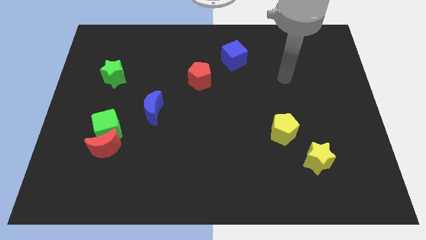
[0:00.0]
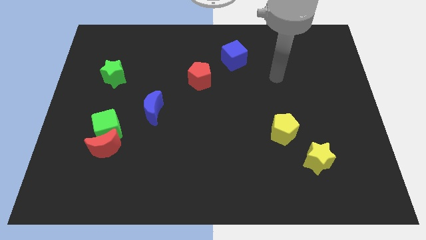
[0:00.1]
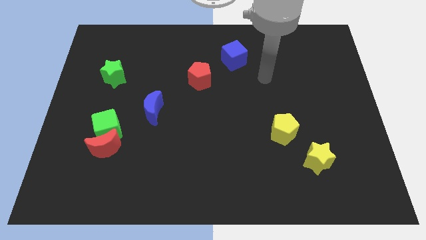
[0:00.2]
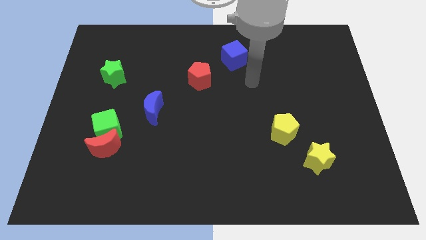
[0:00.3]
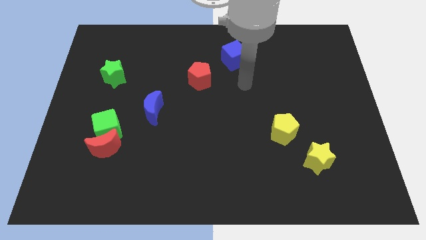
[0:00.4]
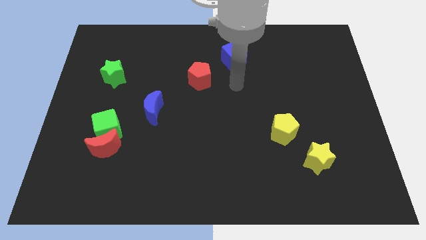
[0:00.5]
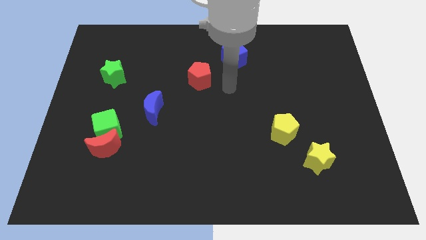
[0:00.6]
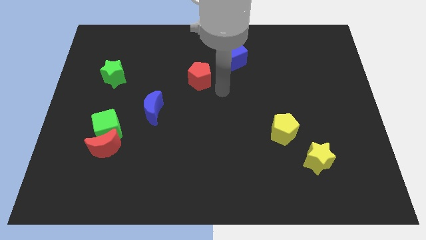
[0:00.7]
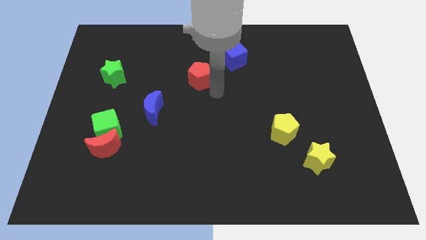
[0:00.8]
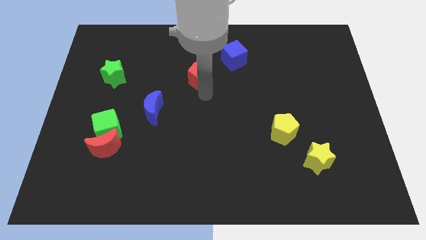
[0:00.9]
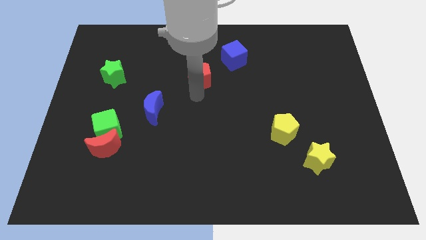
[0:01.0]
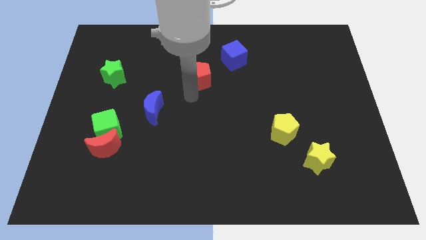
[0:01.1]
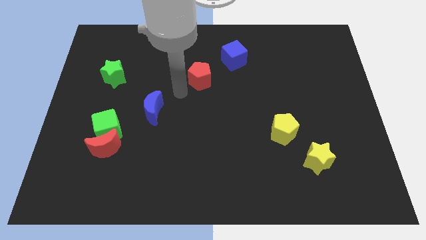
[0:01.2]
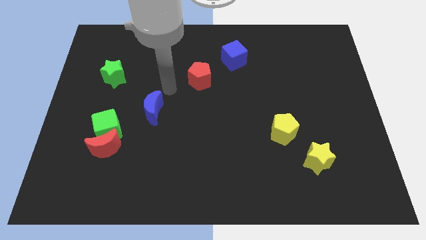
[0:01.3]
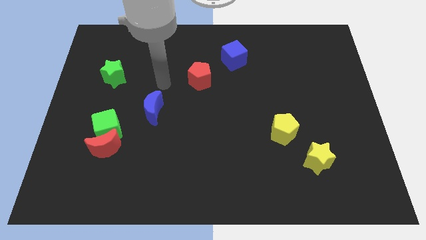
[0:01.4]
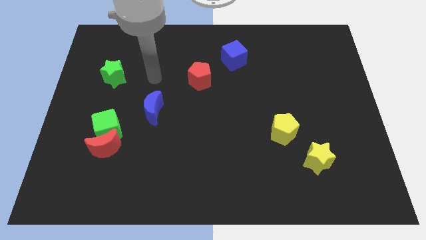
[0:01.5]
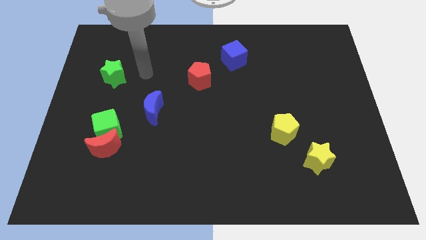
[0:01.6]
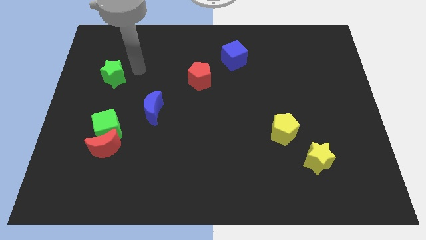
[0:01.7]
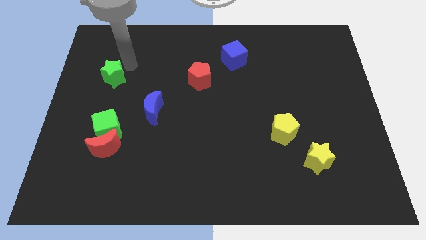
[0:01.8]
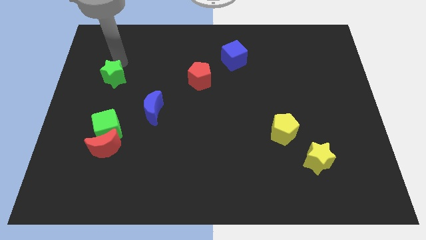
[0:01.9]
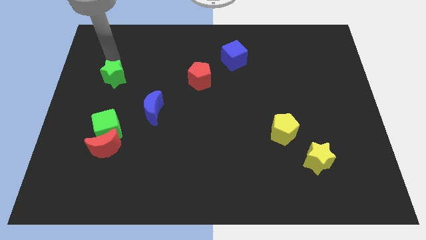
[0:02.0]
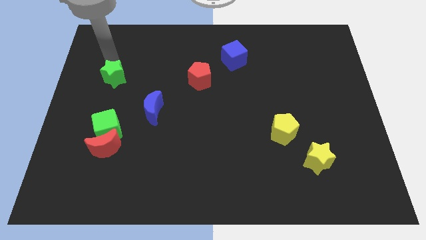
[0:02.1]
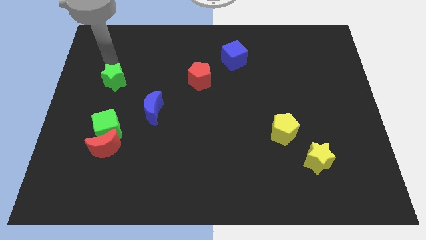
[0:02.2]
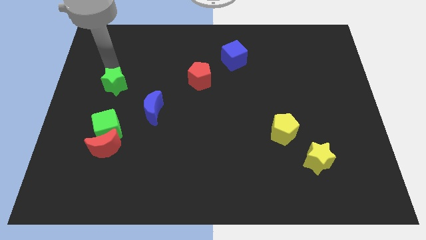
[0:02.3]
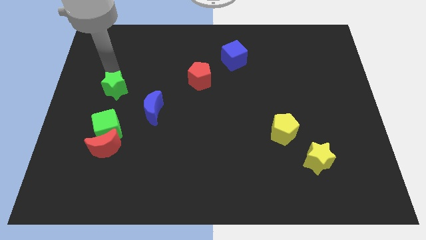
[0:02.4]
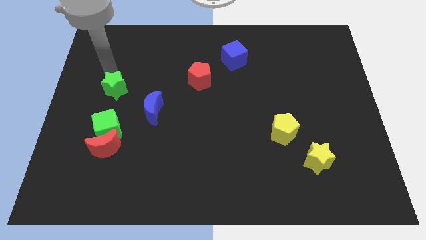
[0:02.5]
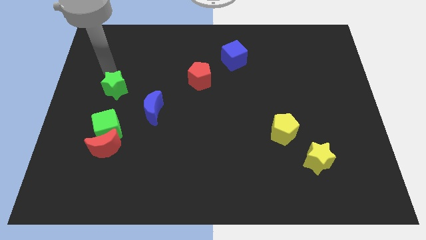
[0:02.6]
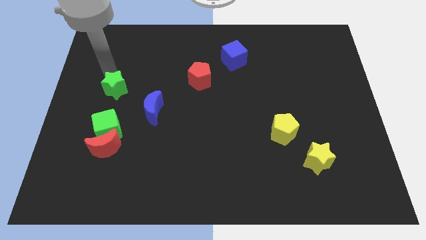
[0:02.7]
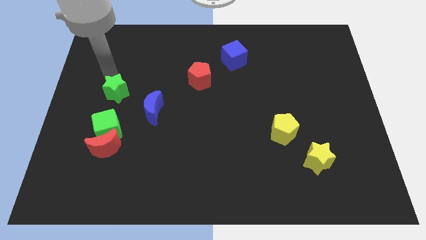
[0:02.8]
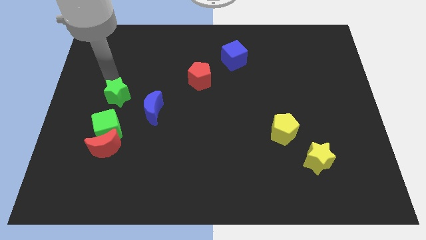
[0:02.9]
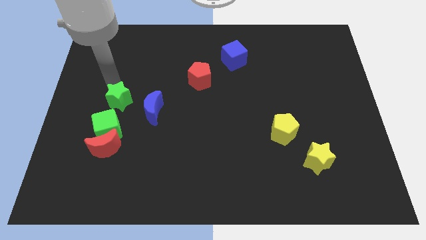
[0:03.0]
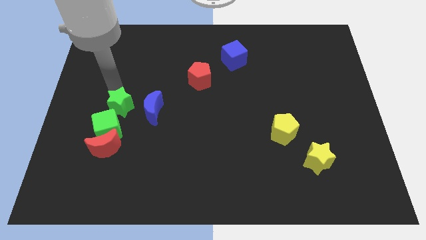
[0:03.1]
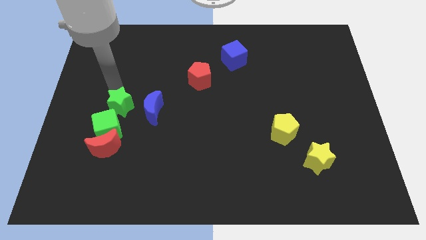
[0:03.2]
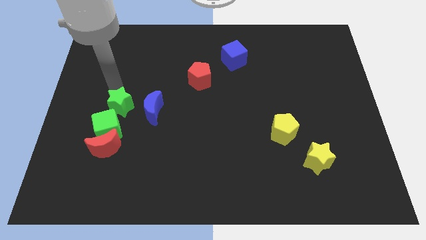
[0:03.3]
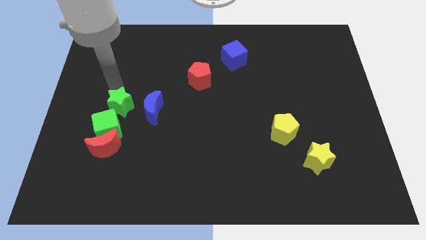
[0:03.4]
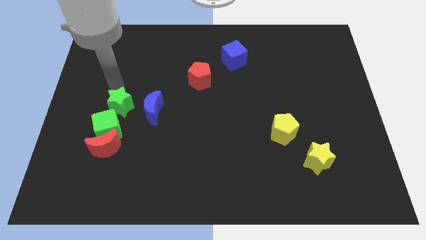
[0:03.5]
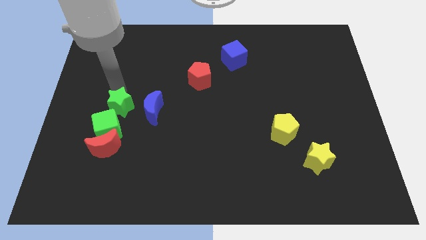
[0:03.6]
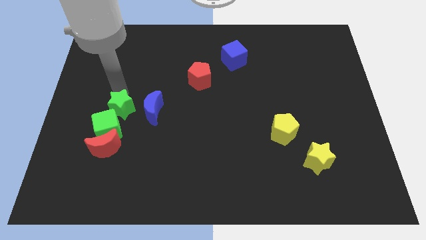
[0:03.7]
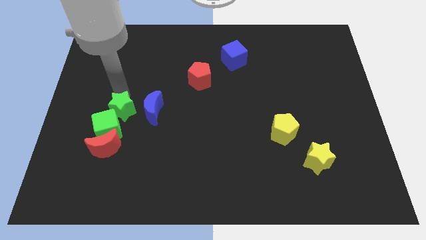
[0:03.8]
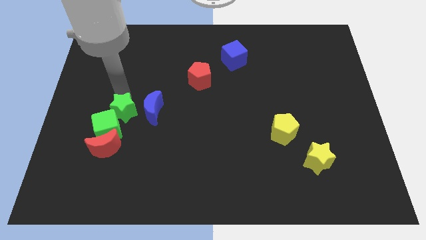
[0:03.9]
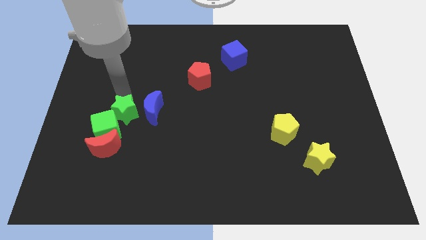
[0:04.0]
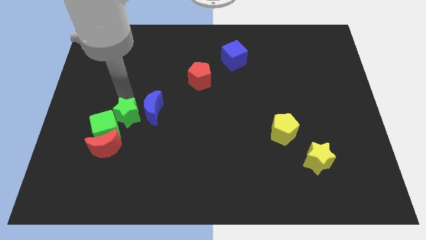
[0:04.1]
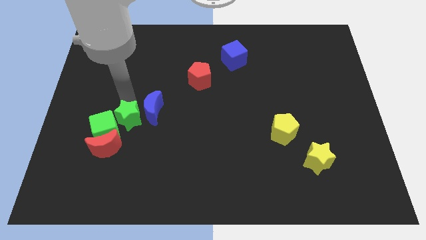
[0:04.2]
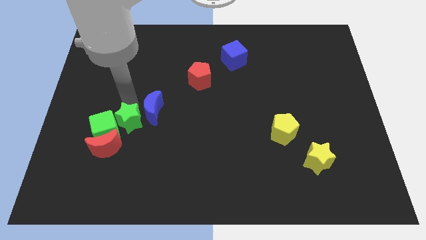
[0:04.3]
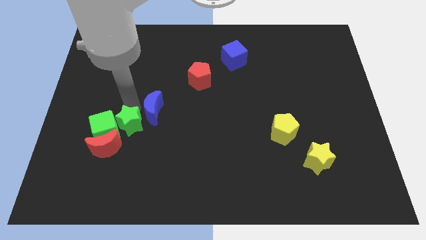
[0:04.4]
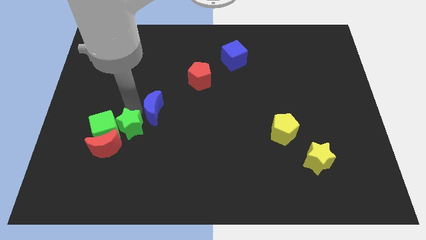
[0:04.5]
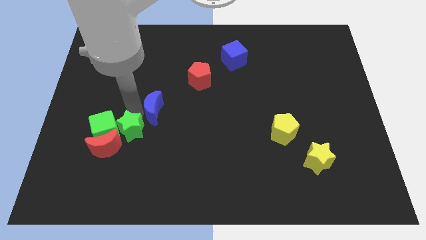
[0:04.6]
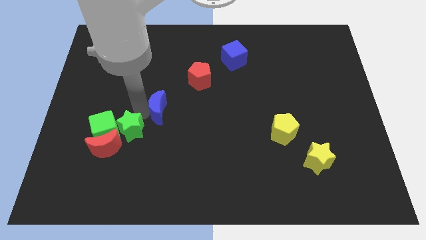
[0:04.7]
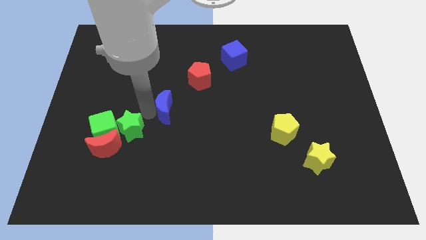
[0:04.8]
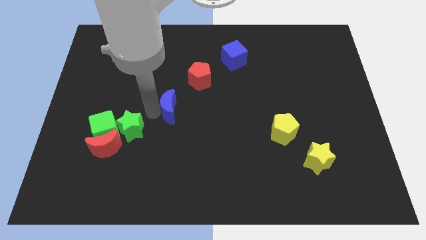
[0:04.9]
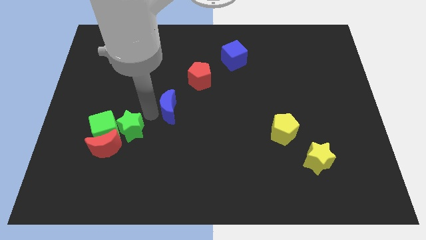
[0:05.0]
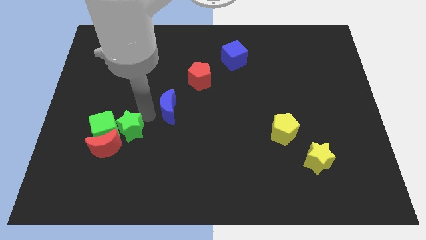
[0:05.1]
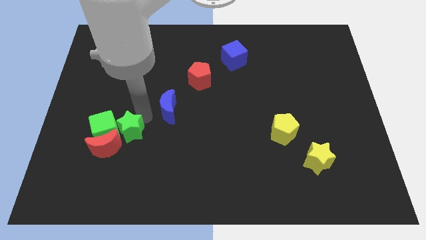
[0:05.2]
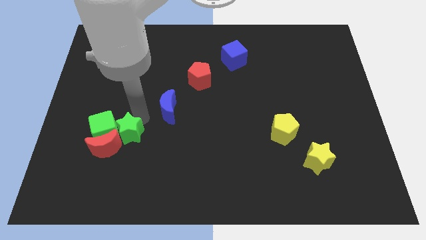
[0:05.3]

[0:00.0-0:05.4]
push the green star to the red moon

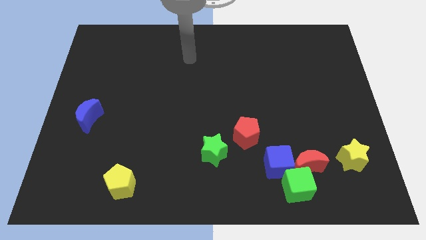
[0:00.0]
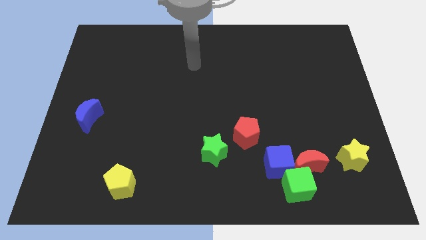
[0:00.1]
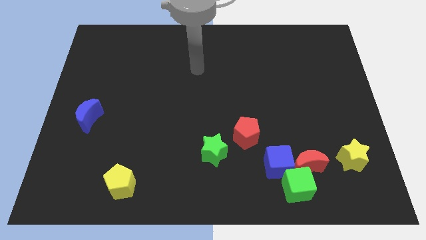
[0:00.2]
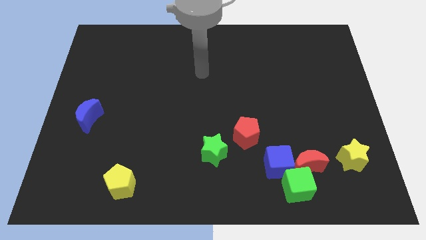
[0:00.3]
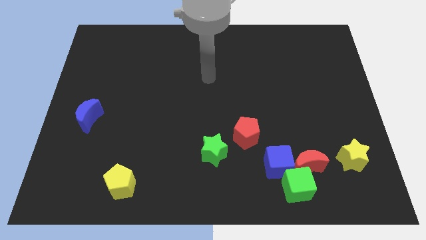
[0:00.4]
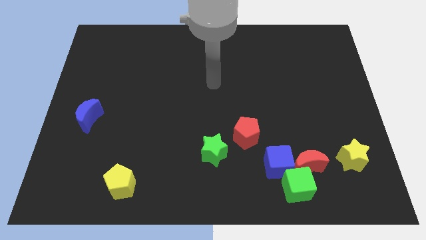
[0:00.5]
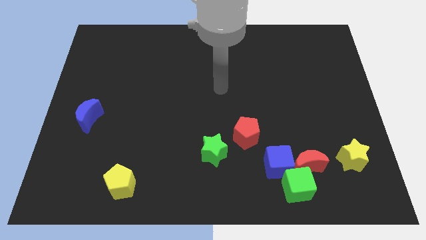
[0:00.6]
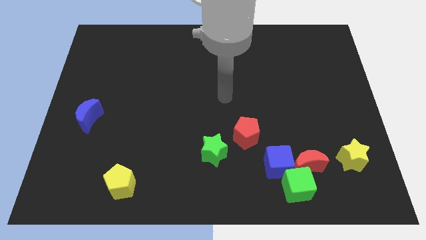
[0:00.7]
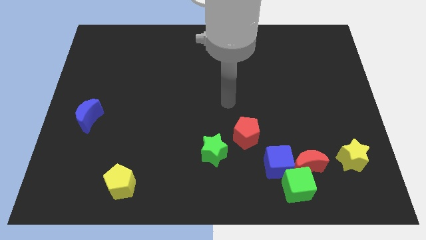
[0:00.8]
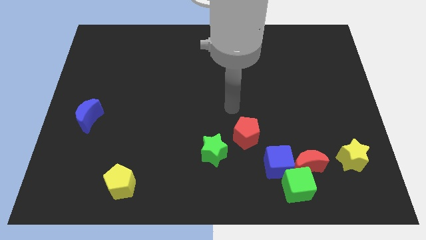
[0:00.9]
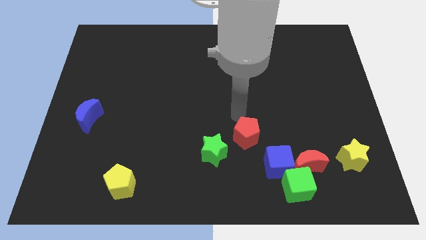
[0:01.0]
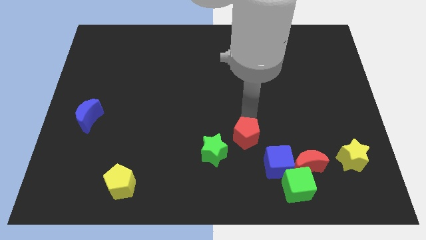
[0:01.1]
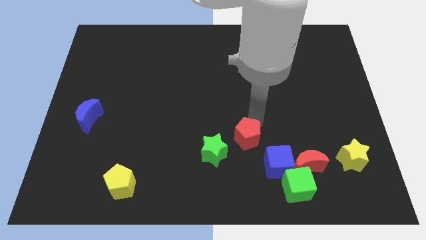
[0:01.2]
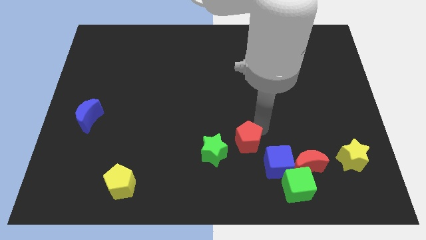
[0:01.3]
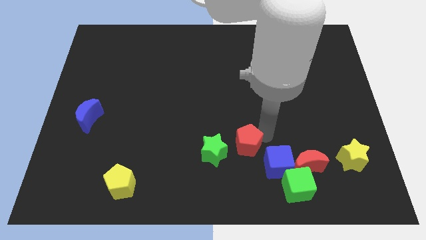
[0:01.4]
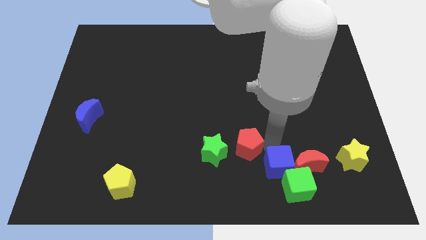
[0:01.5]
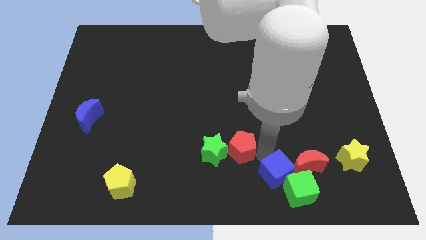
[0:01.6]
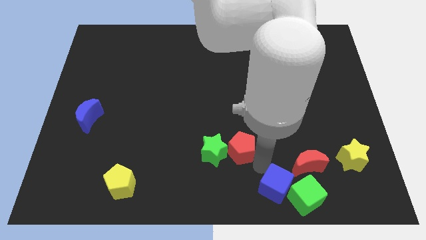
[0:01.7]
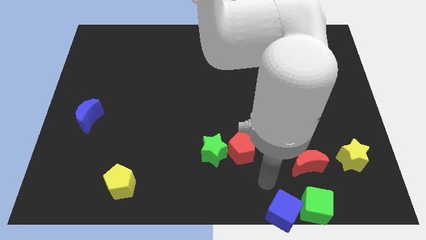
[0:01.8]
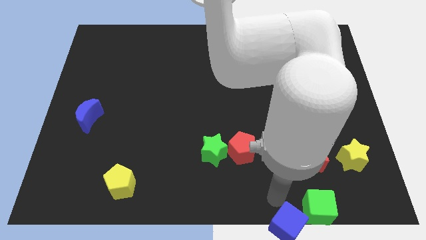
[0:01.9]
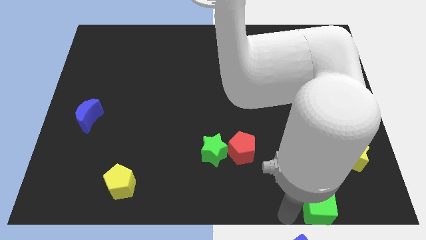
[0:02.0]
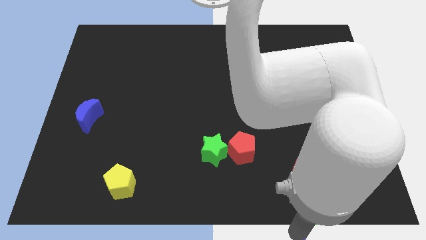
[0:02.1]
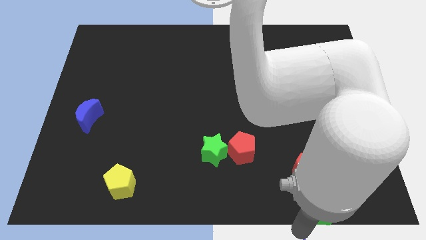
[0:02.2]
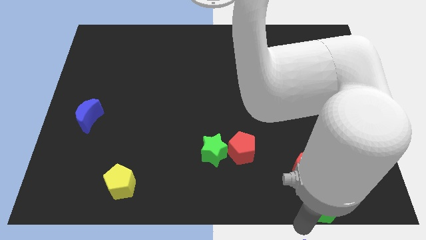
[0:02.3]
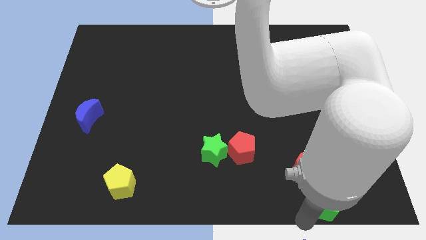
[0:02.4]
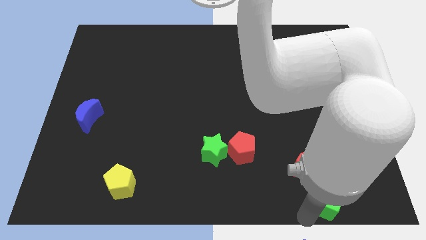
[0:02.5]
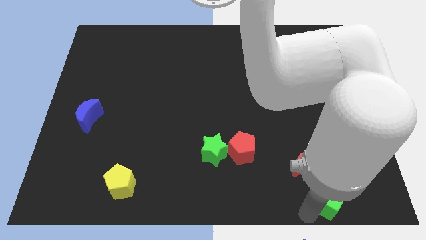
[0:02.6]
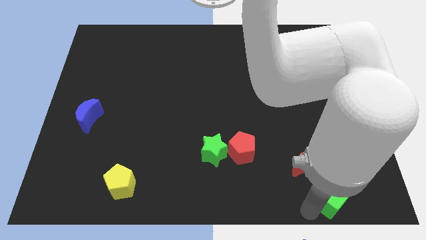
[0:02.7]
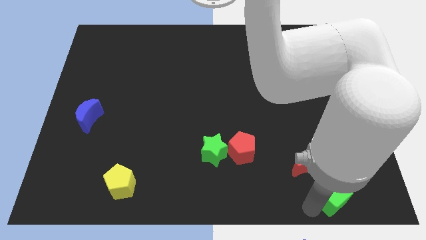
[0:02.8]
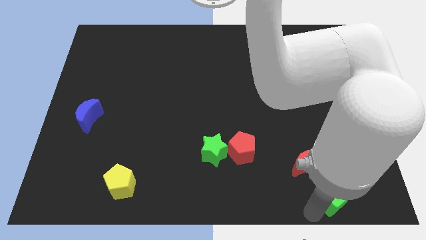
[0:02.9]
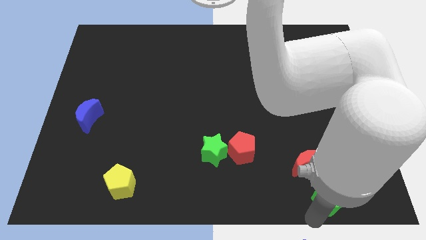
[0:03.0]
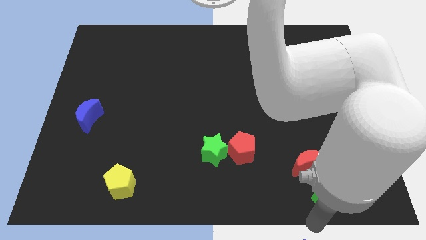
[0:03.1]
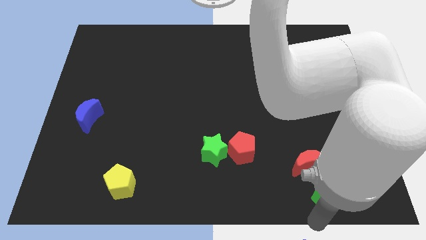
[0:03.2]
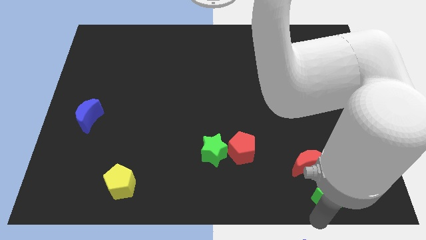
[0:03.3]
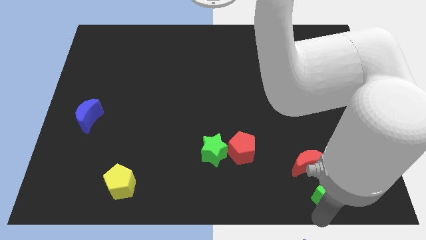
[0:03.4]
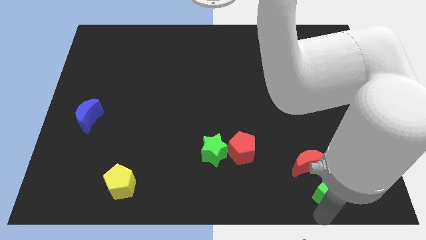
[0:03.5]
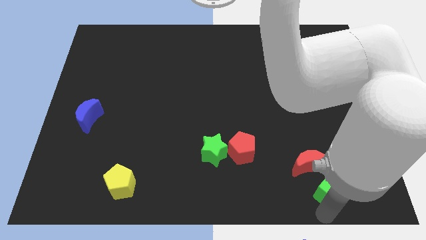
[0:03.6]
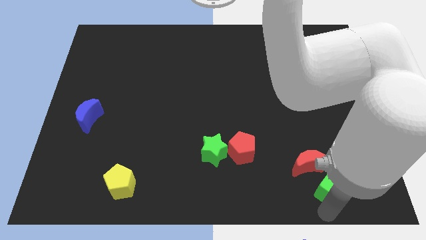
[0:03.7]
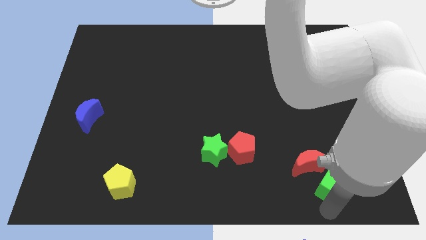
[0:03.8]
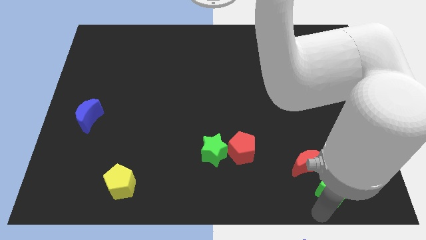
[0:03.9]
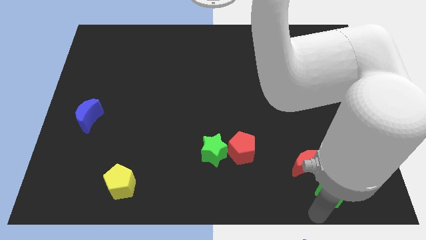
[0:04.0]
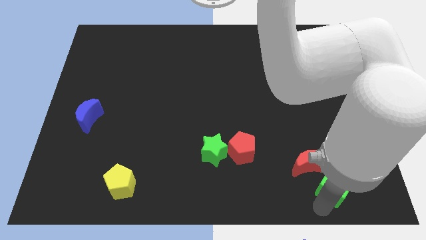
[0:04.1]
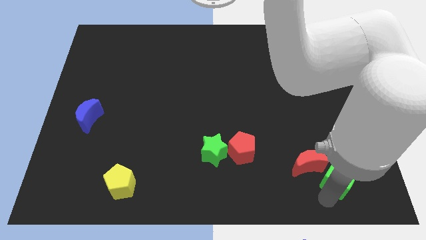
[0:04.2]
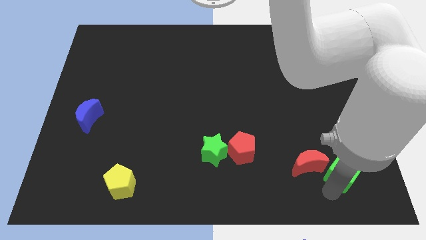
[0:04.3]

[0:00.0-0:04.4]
move the green cube next to the yellow star
